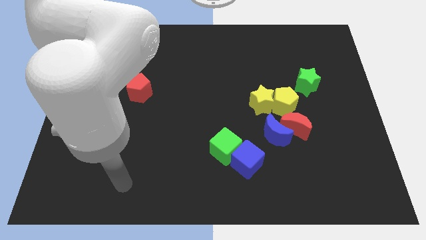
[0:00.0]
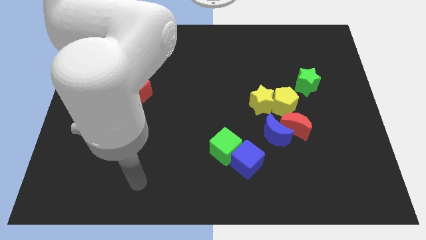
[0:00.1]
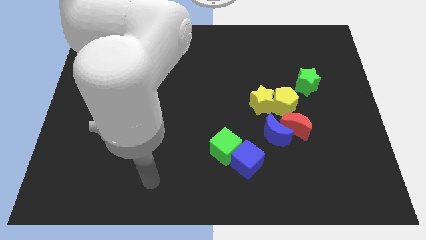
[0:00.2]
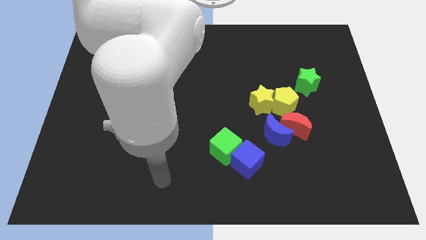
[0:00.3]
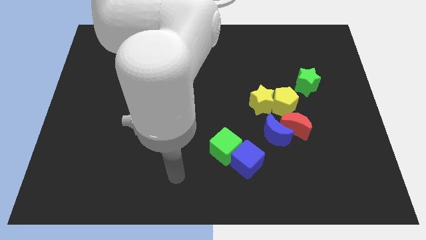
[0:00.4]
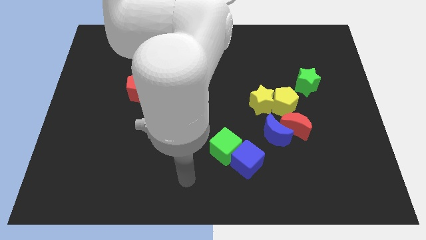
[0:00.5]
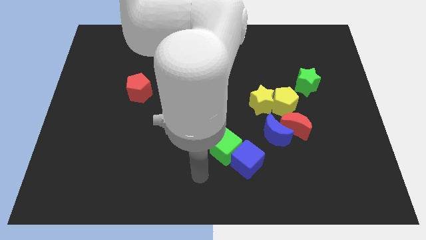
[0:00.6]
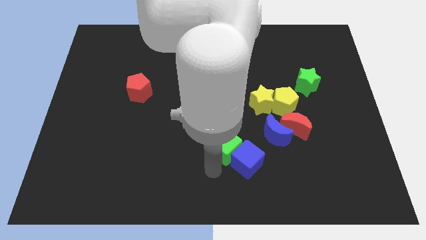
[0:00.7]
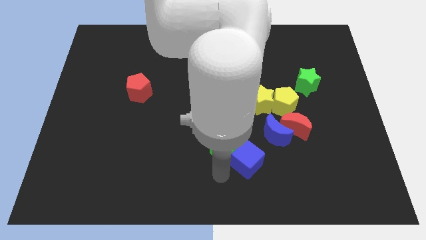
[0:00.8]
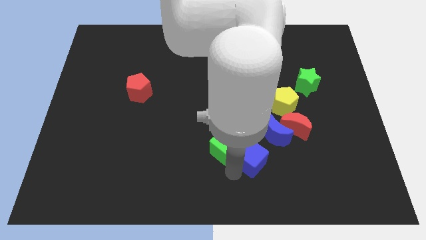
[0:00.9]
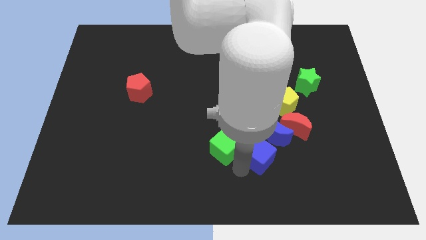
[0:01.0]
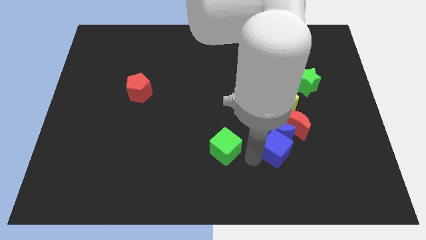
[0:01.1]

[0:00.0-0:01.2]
pull the green cube apart from the blue cube

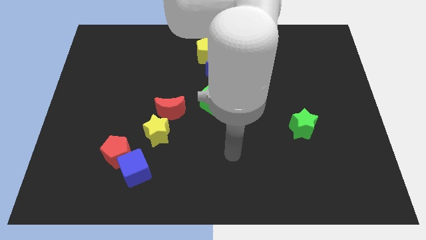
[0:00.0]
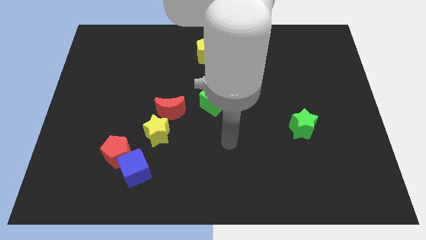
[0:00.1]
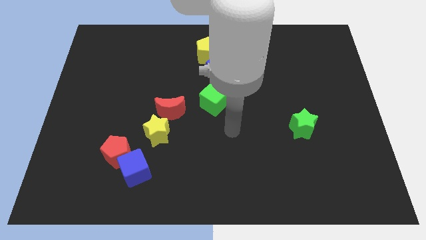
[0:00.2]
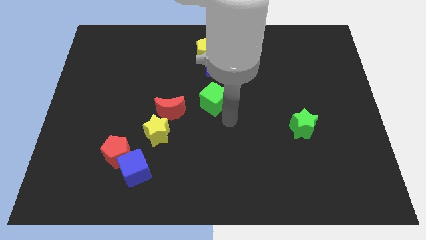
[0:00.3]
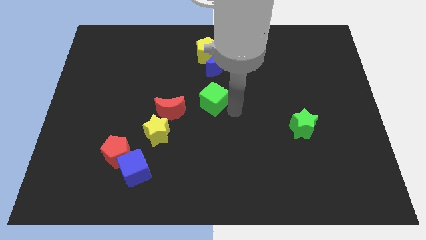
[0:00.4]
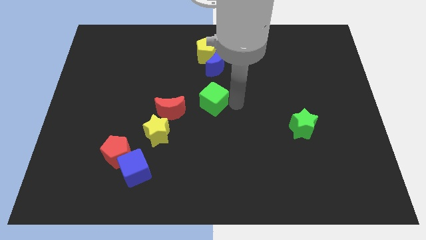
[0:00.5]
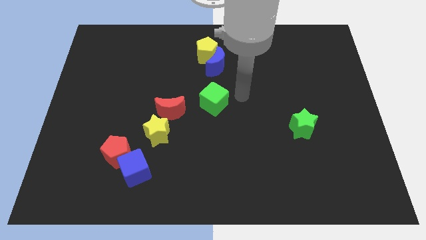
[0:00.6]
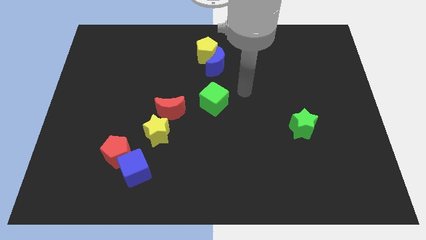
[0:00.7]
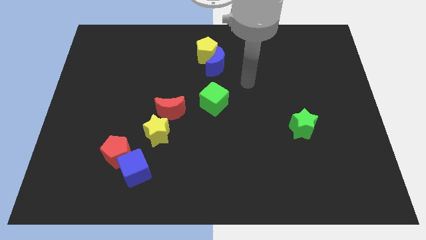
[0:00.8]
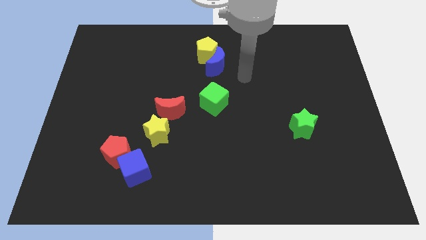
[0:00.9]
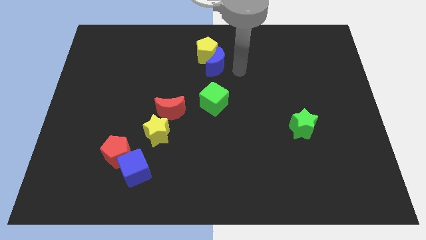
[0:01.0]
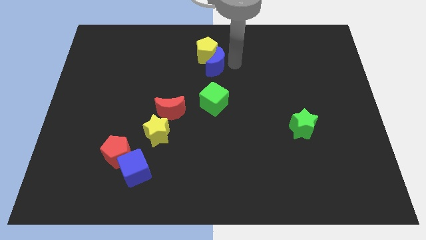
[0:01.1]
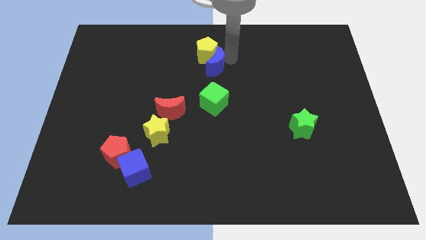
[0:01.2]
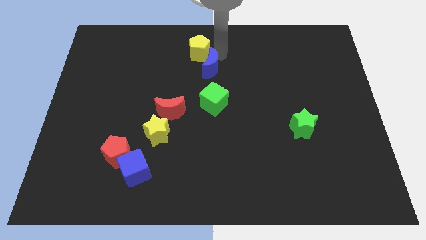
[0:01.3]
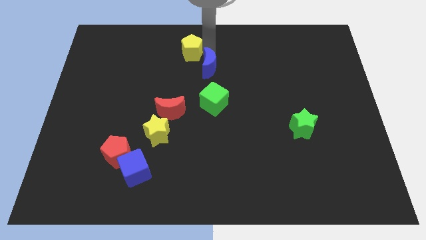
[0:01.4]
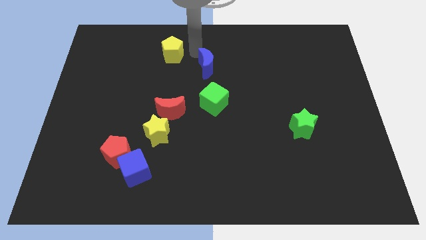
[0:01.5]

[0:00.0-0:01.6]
pull the blue moon apart from the yellow pentagon

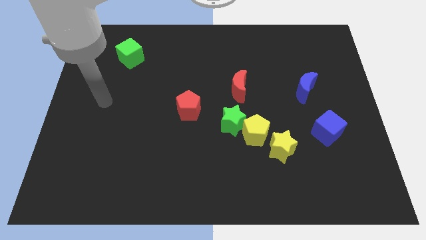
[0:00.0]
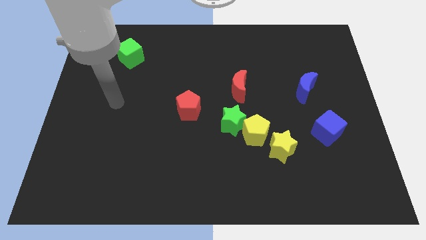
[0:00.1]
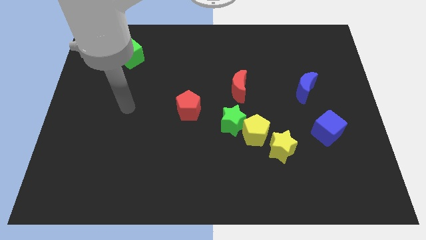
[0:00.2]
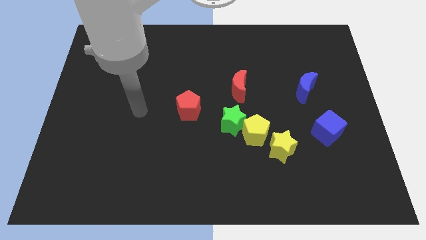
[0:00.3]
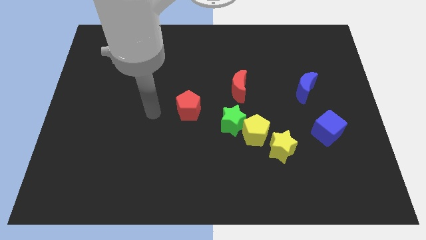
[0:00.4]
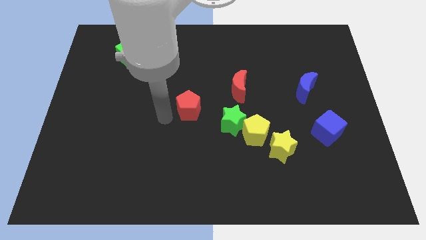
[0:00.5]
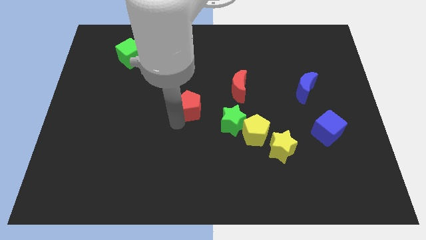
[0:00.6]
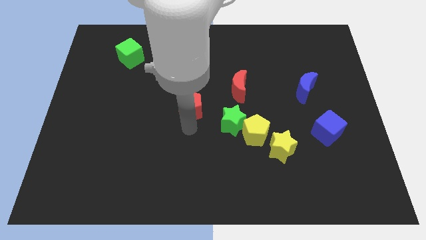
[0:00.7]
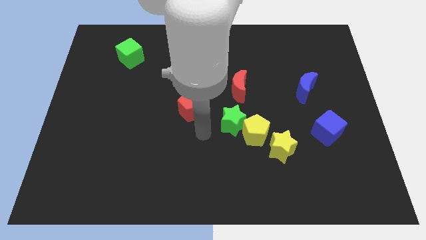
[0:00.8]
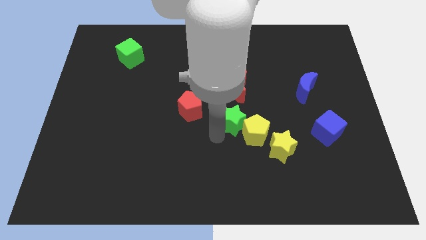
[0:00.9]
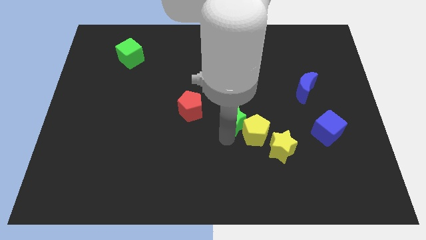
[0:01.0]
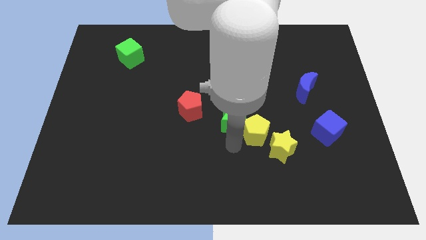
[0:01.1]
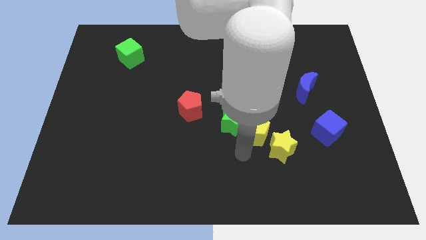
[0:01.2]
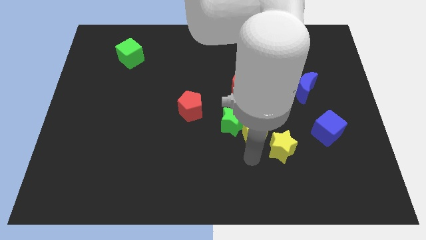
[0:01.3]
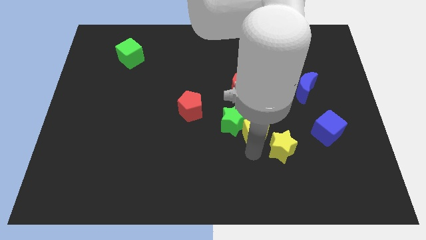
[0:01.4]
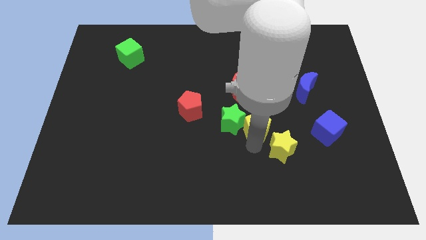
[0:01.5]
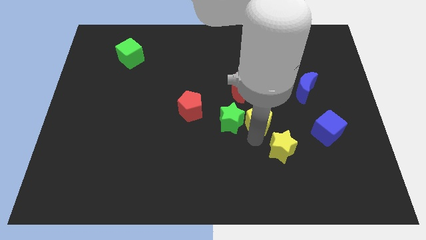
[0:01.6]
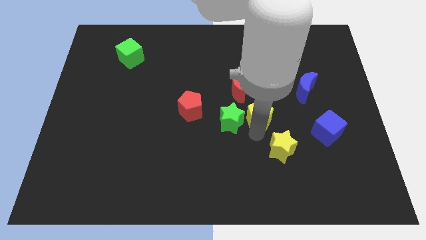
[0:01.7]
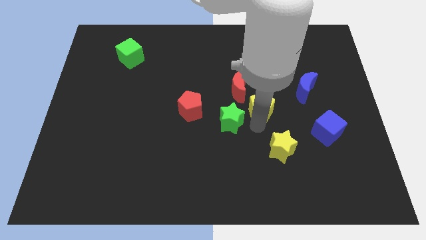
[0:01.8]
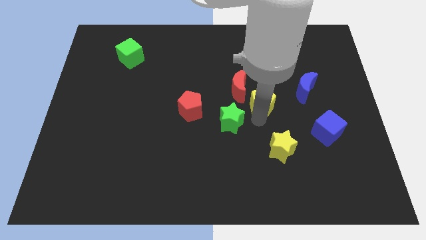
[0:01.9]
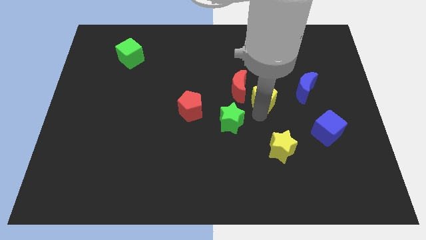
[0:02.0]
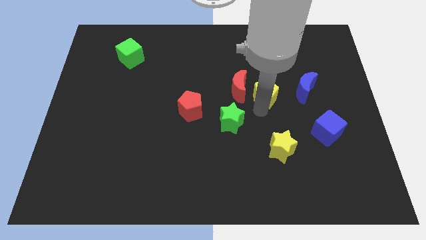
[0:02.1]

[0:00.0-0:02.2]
separate the yellow pentagon from the green star and yellow star

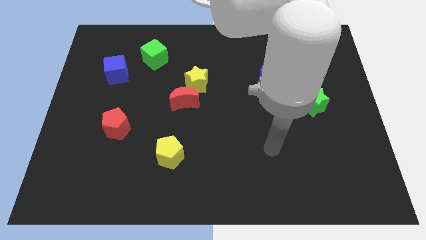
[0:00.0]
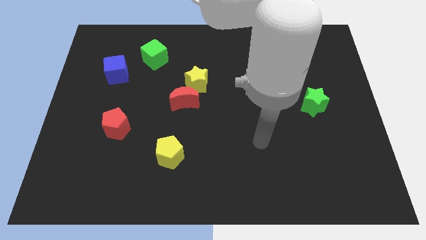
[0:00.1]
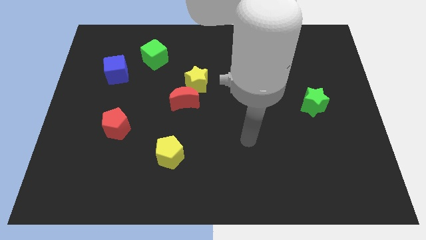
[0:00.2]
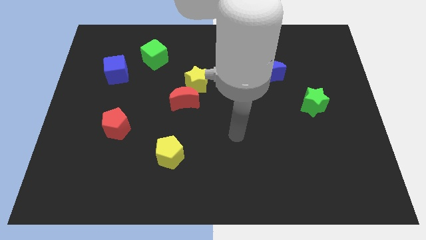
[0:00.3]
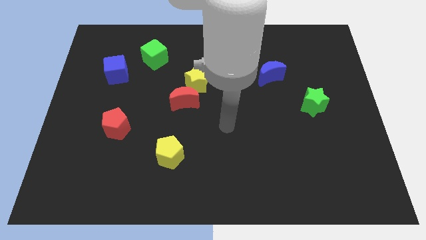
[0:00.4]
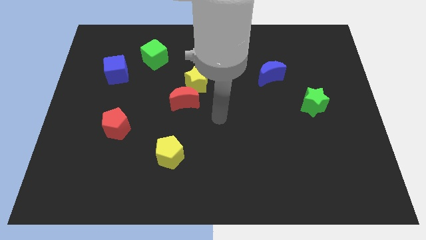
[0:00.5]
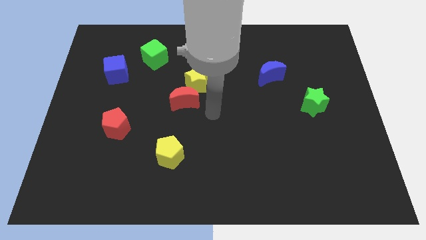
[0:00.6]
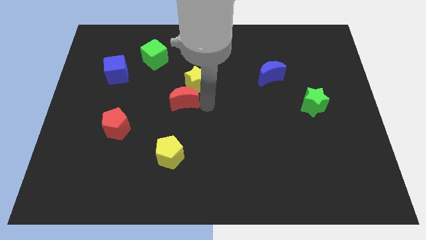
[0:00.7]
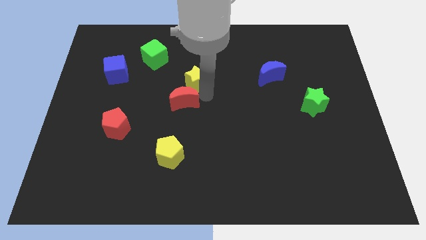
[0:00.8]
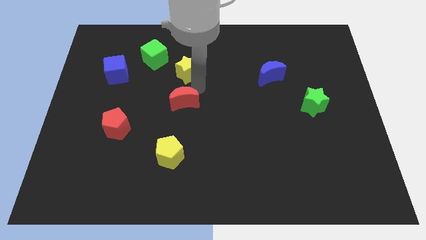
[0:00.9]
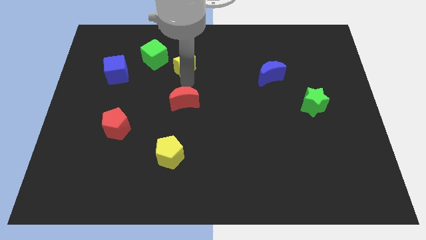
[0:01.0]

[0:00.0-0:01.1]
move the red moon away from the yellow star

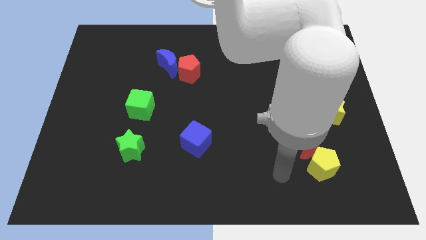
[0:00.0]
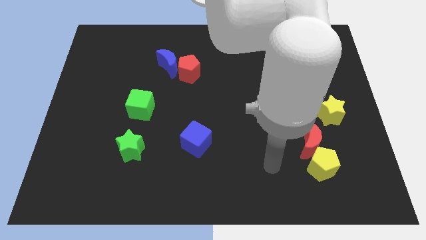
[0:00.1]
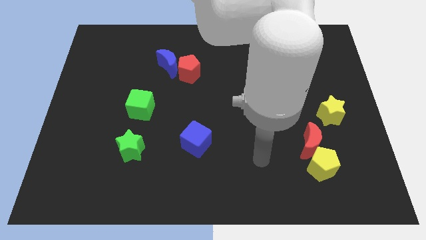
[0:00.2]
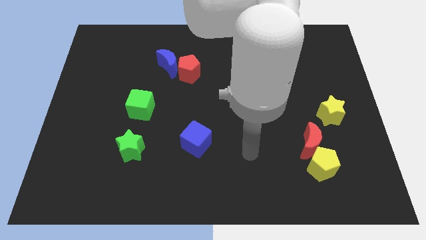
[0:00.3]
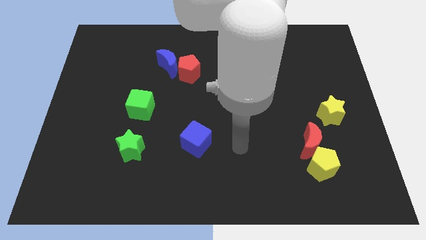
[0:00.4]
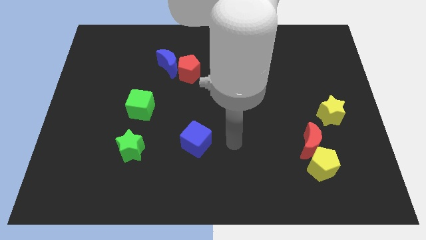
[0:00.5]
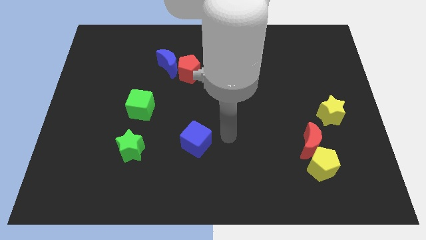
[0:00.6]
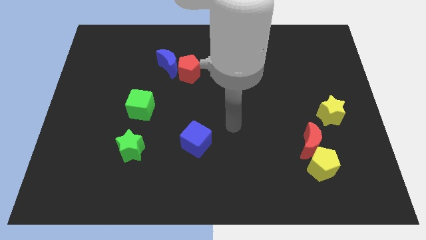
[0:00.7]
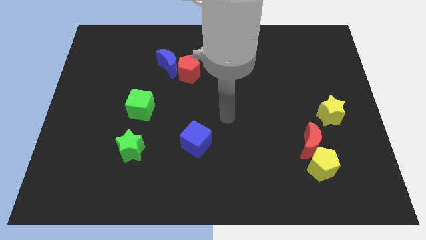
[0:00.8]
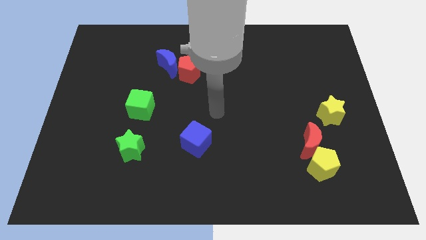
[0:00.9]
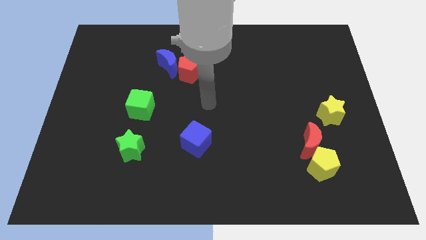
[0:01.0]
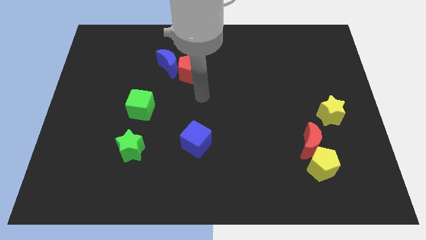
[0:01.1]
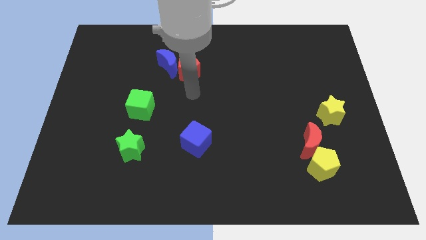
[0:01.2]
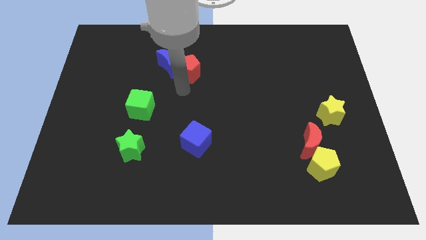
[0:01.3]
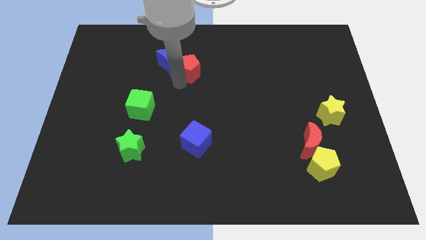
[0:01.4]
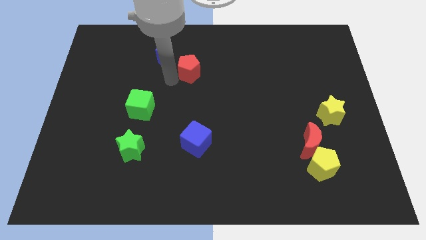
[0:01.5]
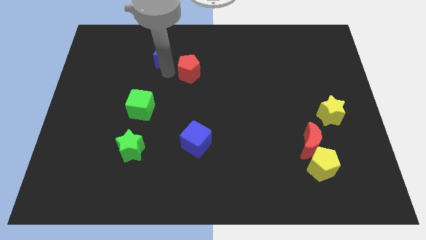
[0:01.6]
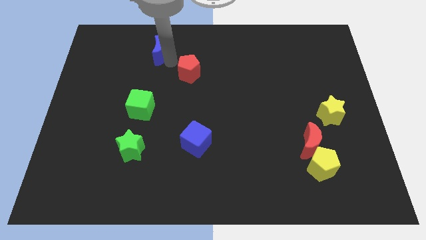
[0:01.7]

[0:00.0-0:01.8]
separate the red pentagon from the blue moon

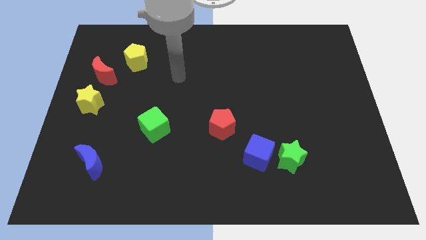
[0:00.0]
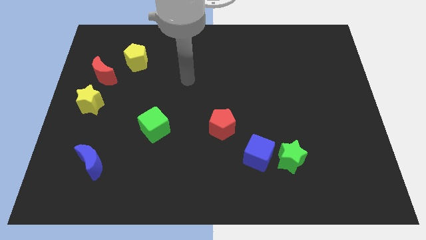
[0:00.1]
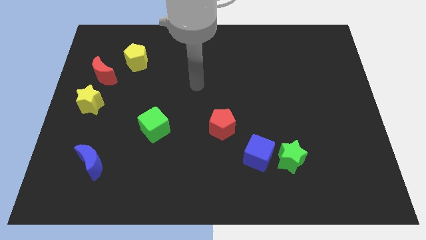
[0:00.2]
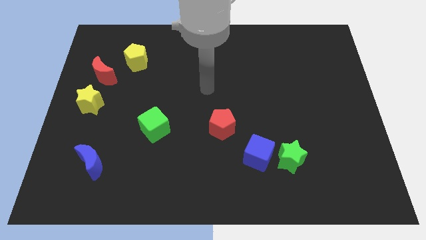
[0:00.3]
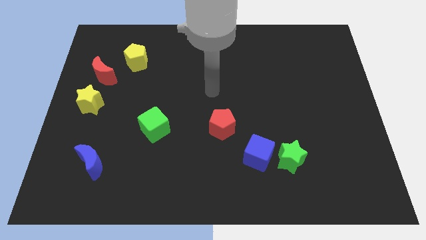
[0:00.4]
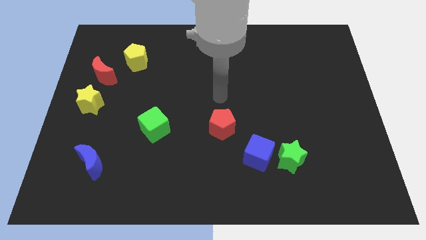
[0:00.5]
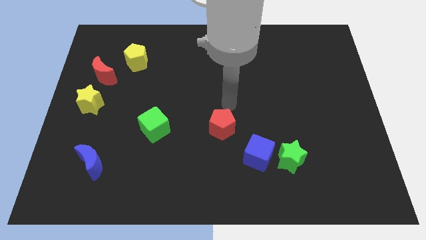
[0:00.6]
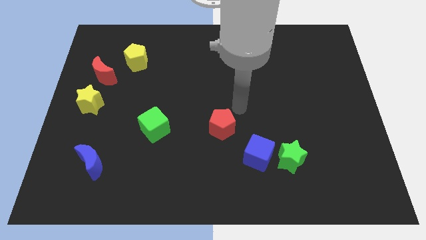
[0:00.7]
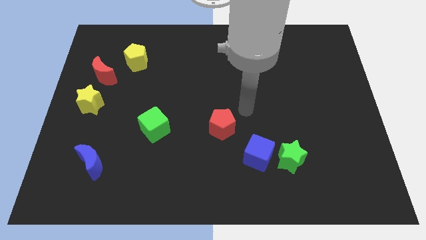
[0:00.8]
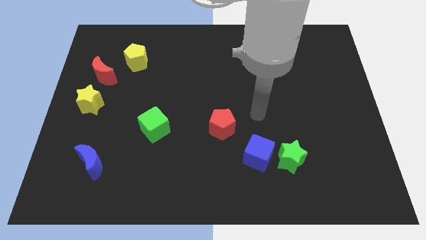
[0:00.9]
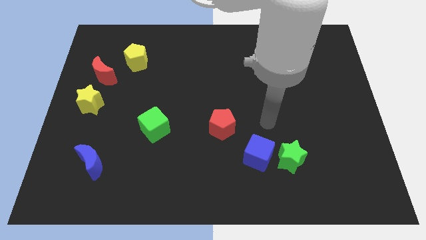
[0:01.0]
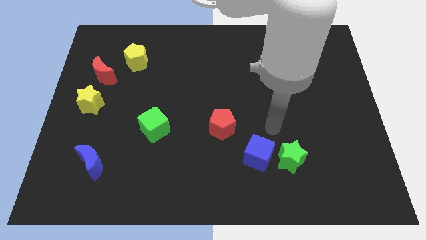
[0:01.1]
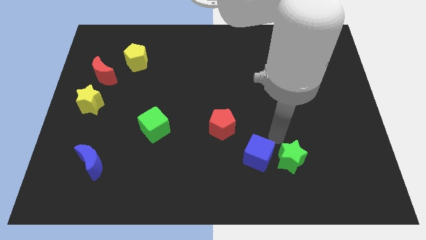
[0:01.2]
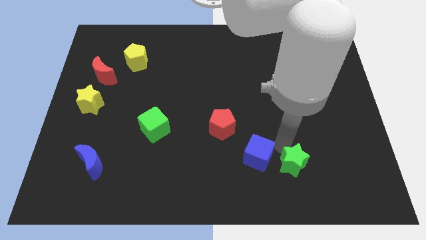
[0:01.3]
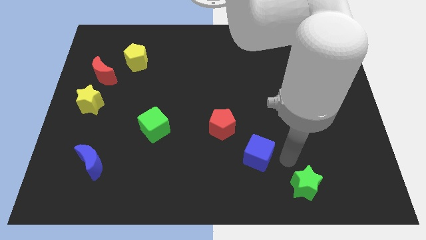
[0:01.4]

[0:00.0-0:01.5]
move the blue cube away from the green star

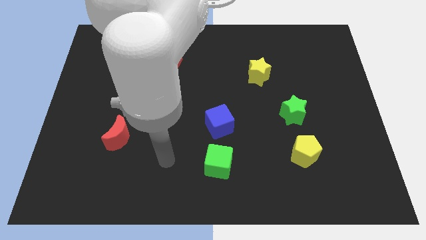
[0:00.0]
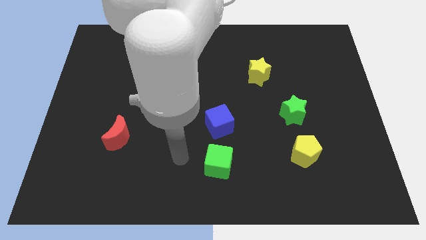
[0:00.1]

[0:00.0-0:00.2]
separate the blue cube from the green cube
